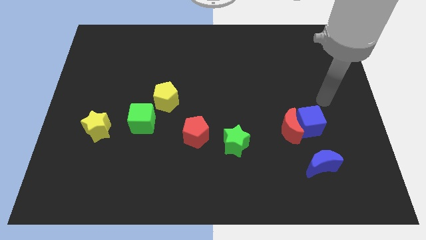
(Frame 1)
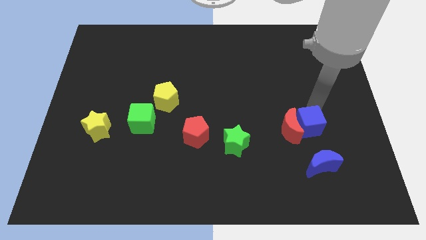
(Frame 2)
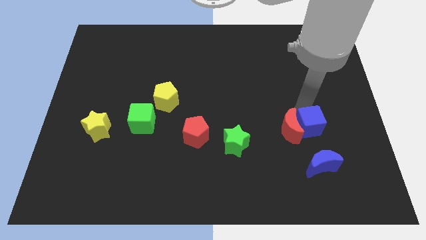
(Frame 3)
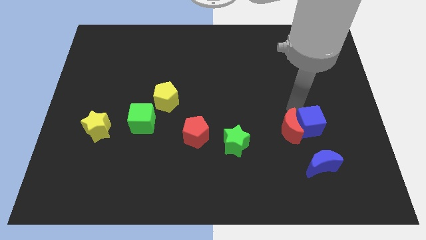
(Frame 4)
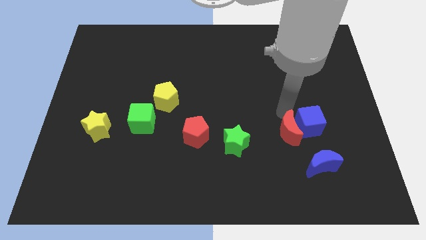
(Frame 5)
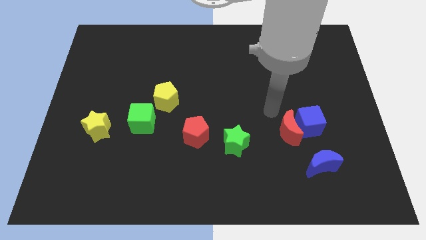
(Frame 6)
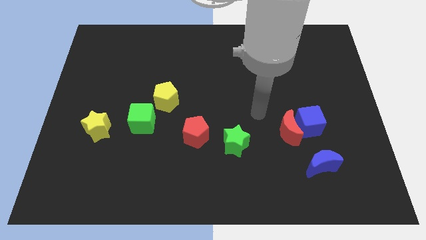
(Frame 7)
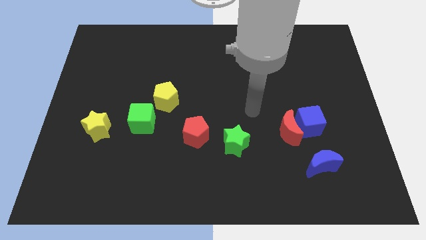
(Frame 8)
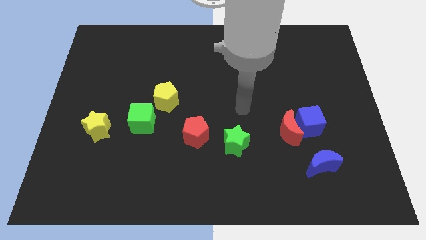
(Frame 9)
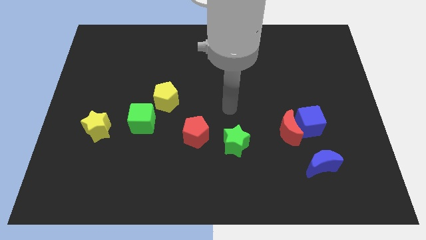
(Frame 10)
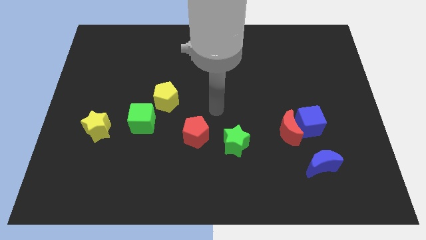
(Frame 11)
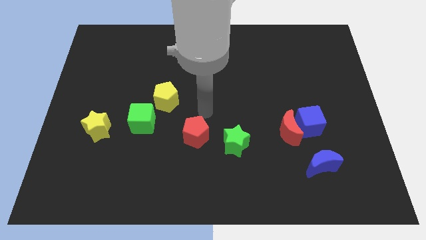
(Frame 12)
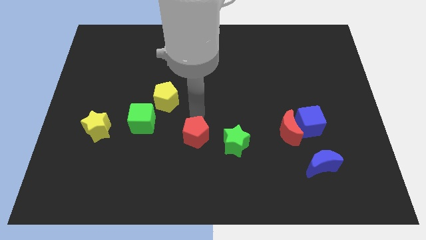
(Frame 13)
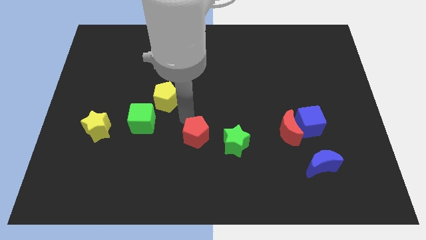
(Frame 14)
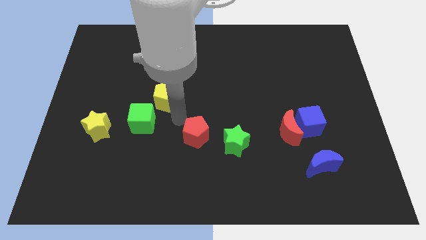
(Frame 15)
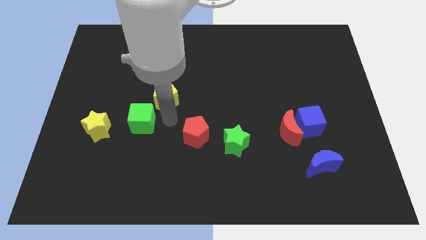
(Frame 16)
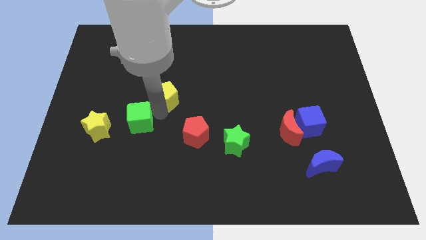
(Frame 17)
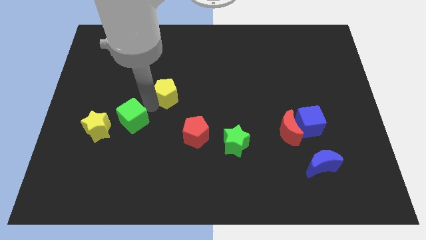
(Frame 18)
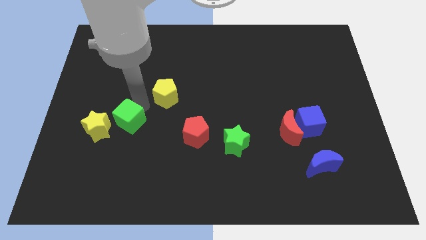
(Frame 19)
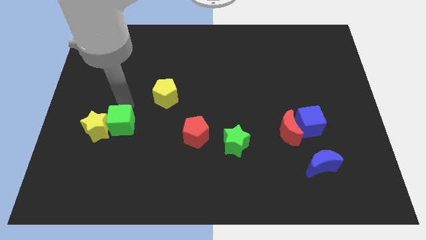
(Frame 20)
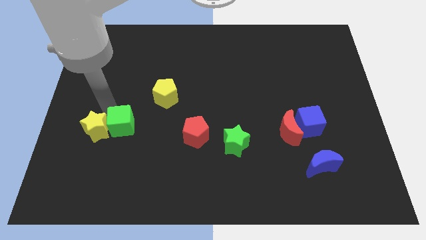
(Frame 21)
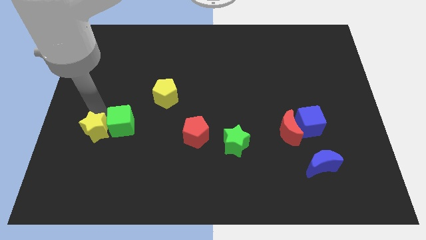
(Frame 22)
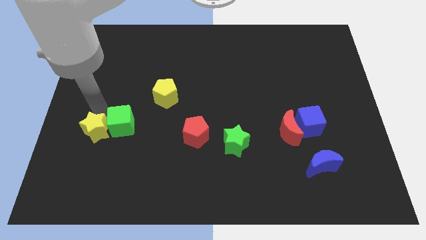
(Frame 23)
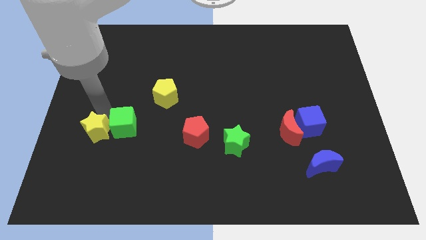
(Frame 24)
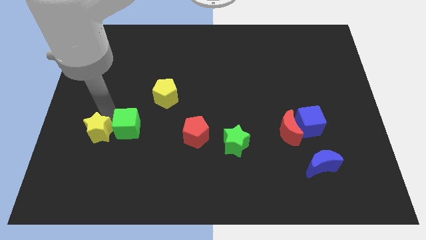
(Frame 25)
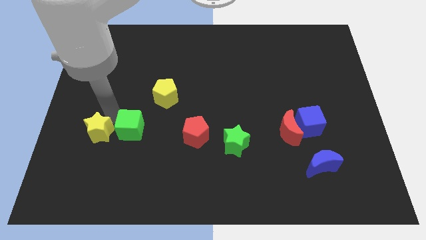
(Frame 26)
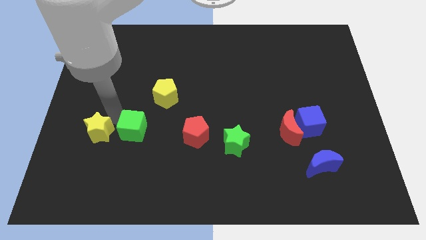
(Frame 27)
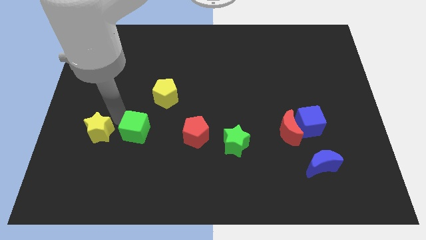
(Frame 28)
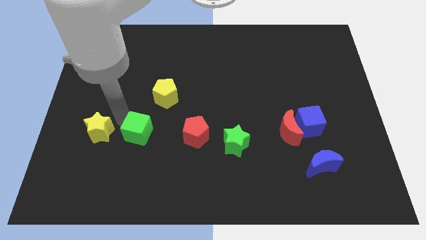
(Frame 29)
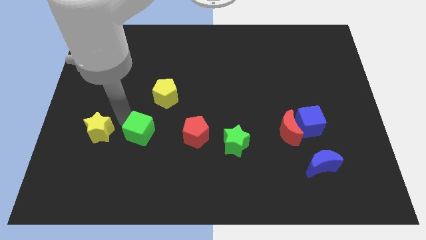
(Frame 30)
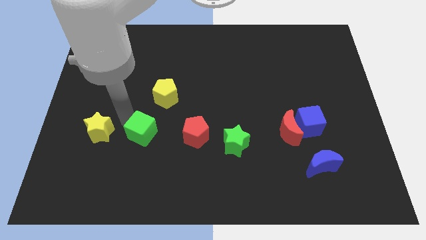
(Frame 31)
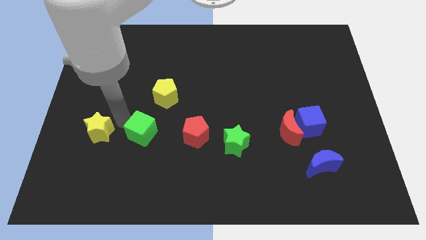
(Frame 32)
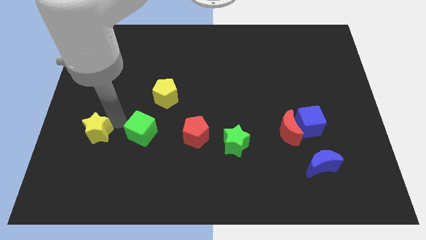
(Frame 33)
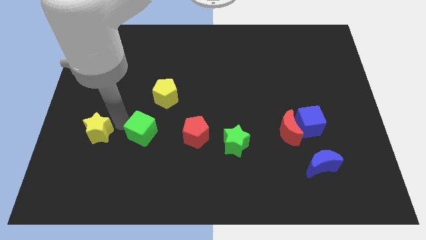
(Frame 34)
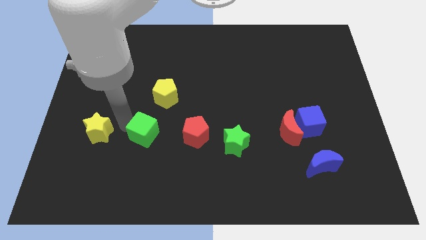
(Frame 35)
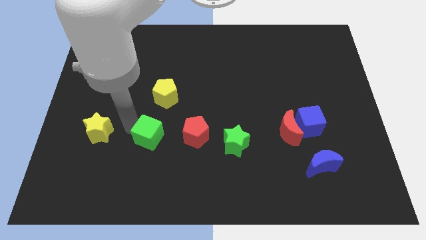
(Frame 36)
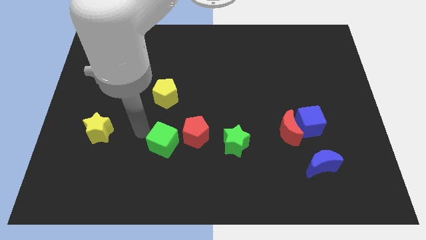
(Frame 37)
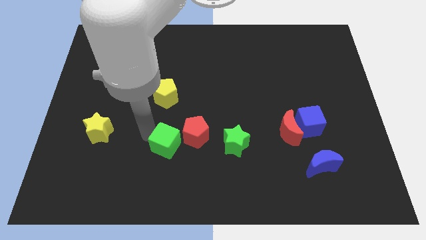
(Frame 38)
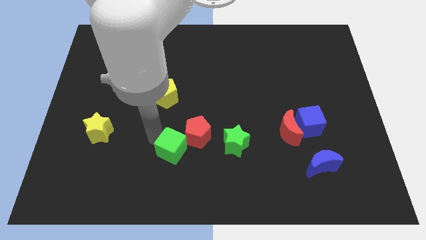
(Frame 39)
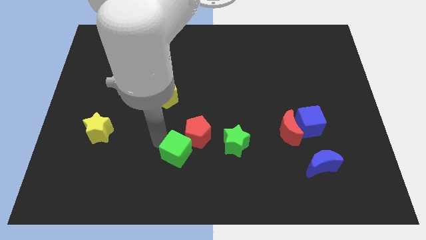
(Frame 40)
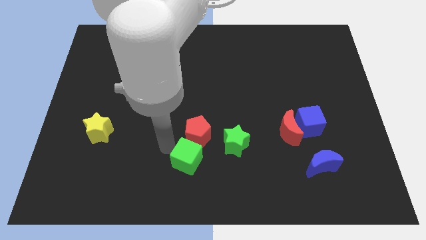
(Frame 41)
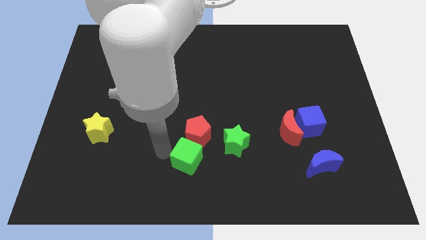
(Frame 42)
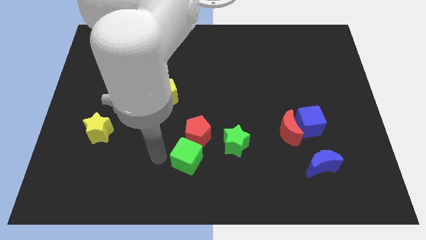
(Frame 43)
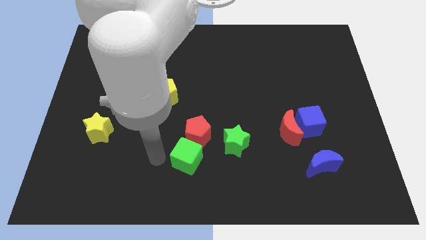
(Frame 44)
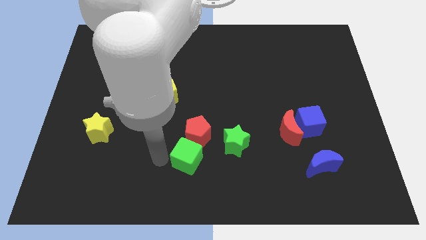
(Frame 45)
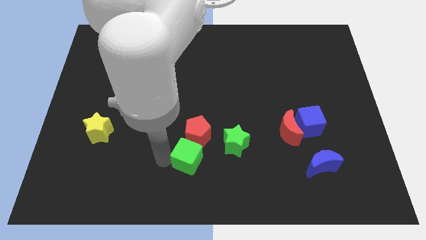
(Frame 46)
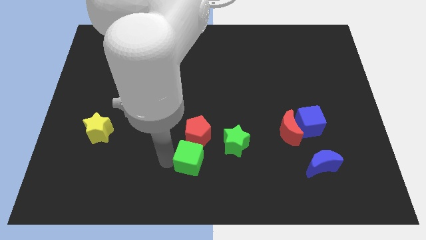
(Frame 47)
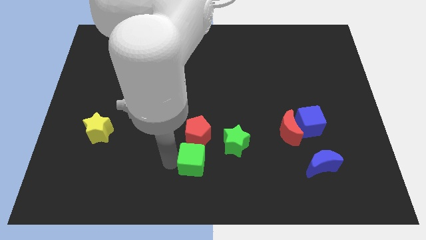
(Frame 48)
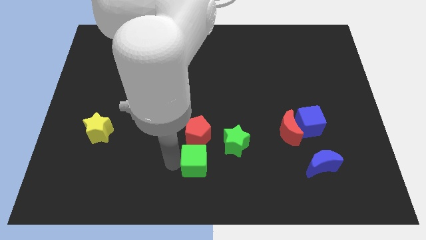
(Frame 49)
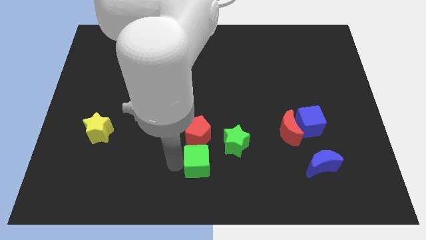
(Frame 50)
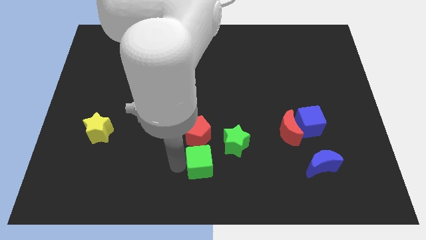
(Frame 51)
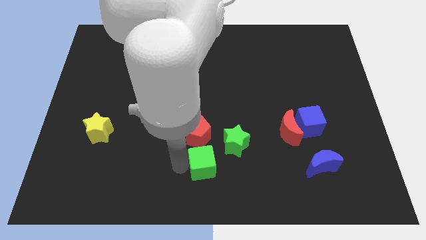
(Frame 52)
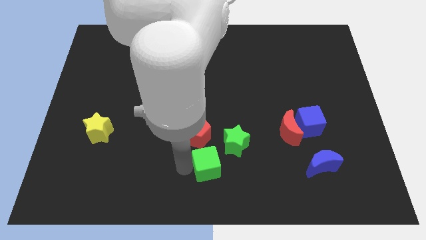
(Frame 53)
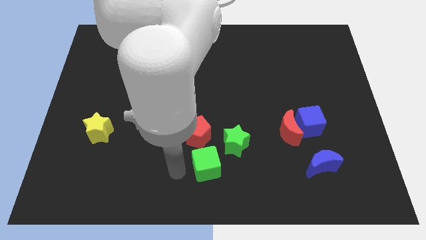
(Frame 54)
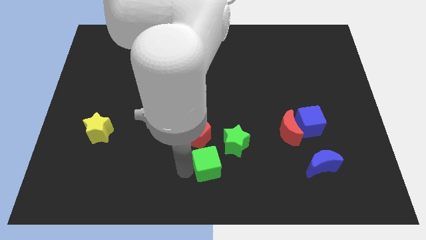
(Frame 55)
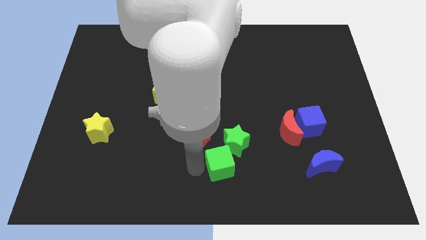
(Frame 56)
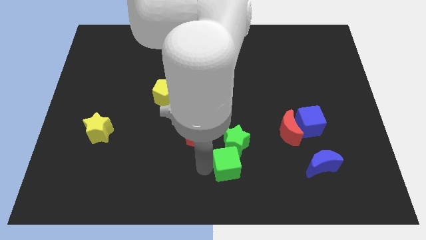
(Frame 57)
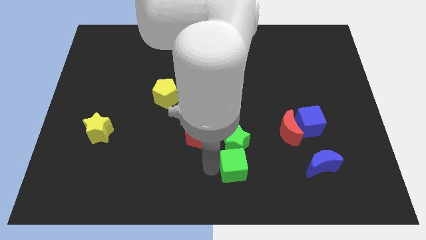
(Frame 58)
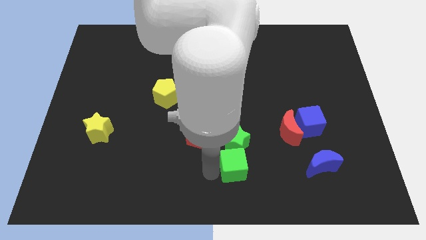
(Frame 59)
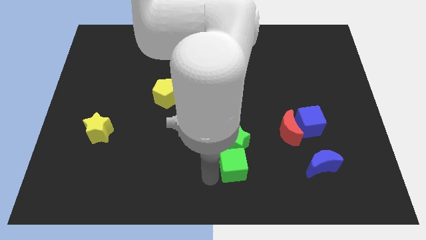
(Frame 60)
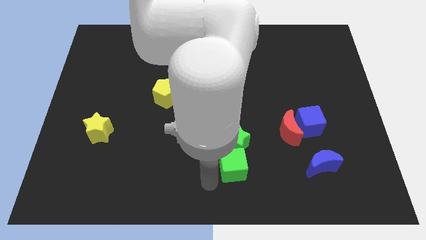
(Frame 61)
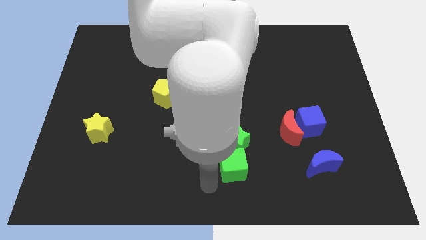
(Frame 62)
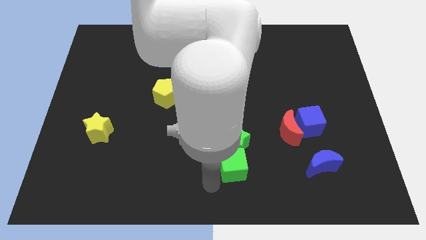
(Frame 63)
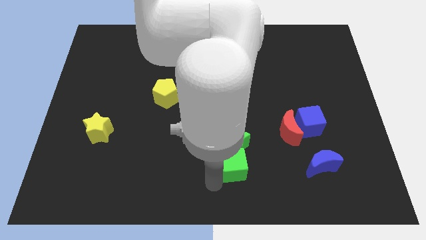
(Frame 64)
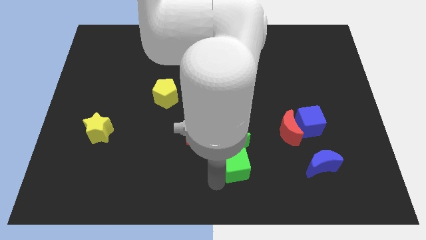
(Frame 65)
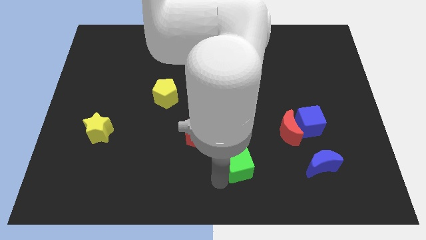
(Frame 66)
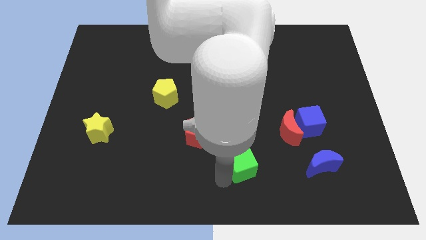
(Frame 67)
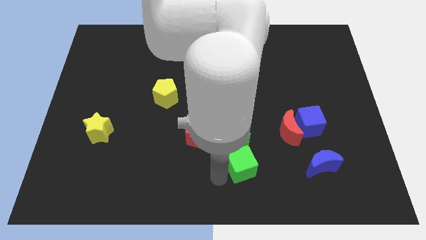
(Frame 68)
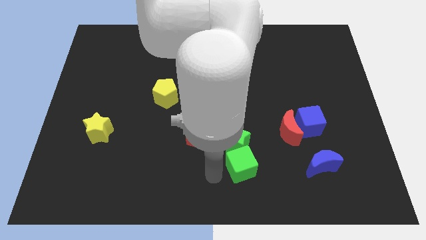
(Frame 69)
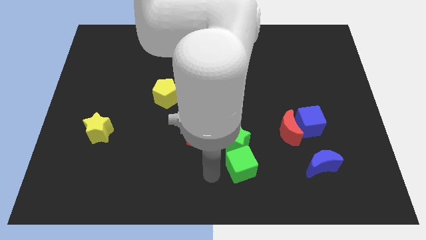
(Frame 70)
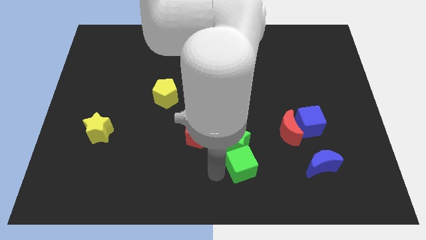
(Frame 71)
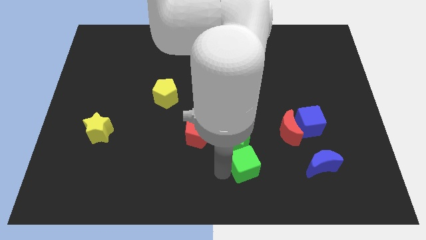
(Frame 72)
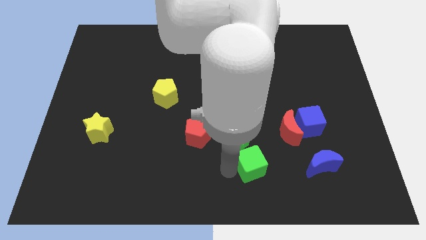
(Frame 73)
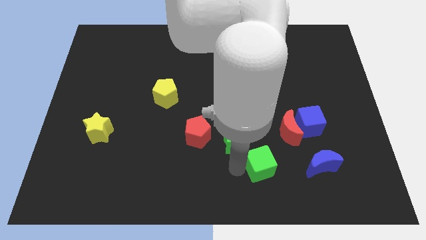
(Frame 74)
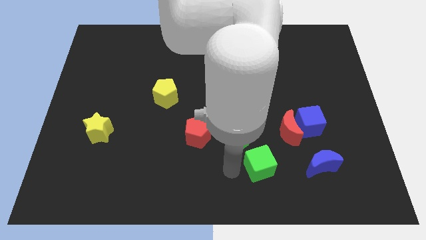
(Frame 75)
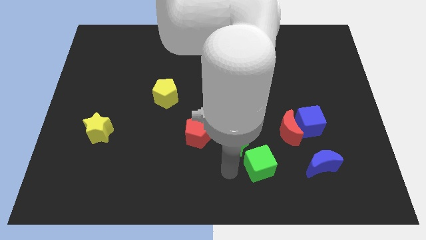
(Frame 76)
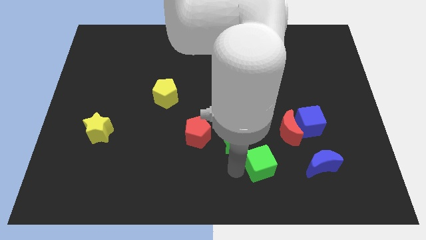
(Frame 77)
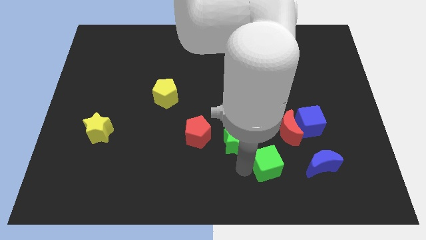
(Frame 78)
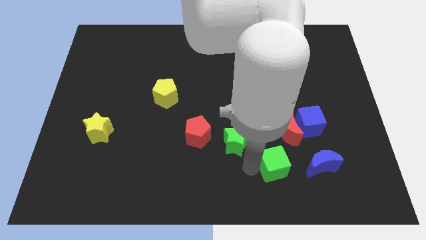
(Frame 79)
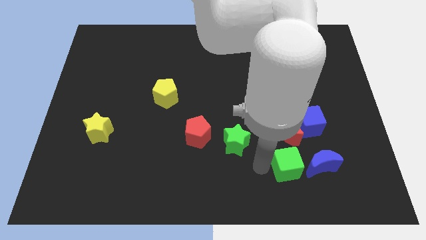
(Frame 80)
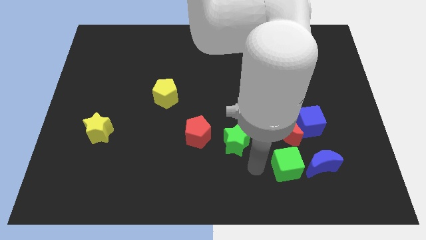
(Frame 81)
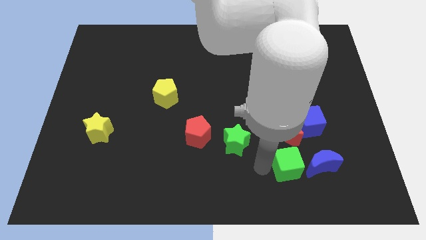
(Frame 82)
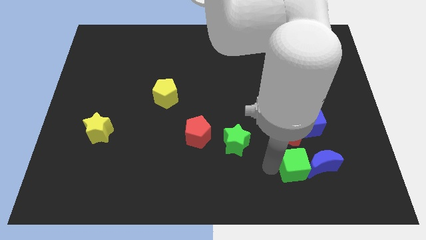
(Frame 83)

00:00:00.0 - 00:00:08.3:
move the green cube next to the blue moon
